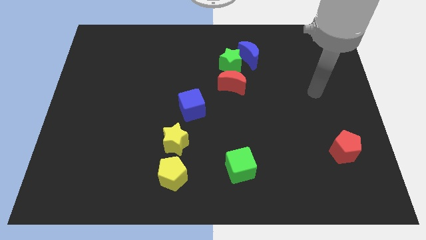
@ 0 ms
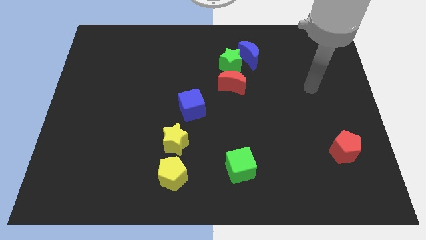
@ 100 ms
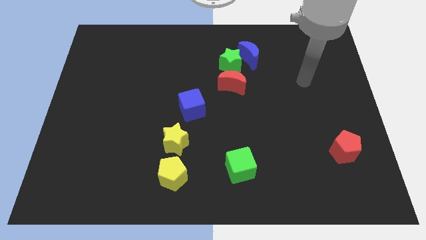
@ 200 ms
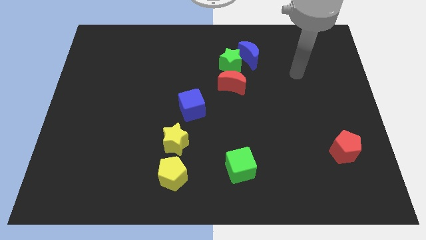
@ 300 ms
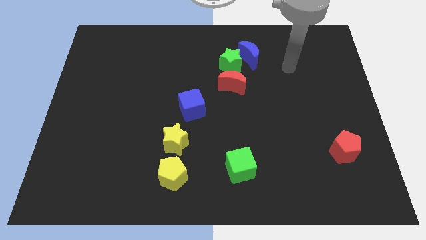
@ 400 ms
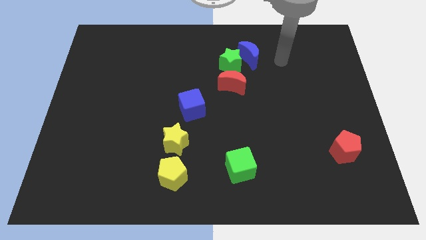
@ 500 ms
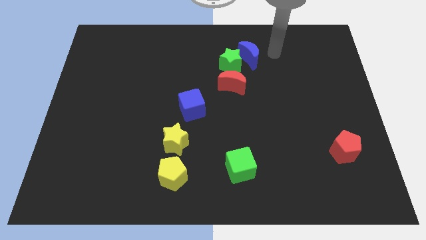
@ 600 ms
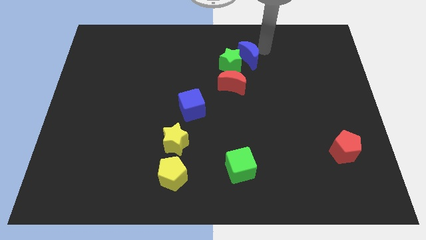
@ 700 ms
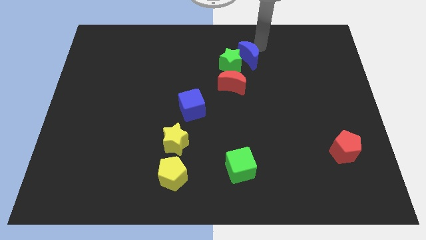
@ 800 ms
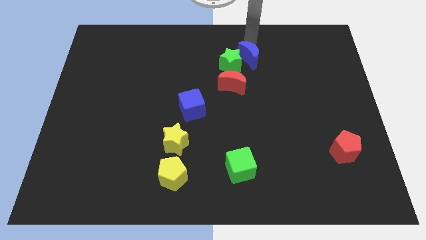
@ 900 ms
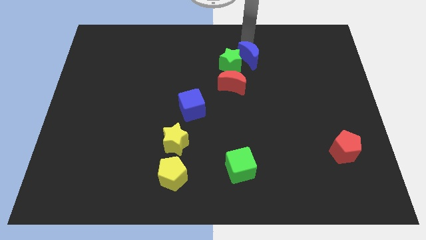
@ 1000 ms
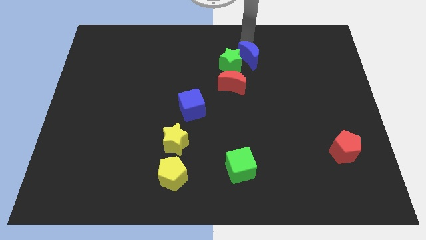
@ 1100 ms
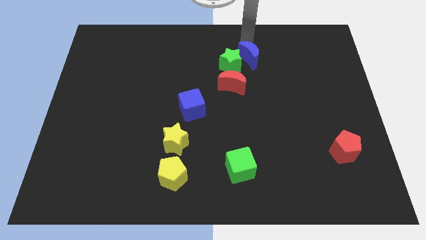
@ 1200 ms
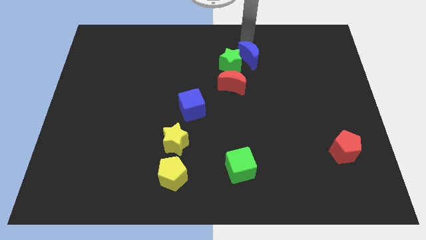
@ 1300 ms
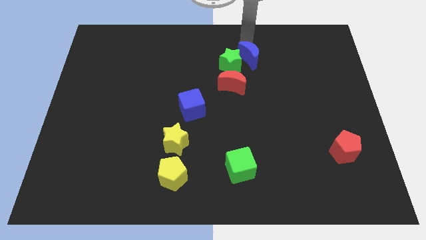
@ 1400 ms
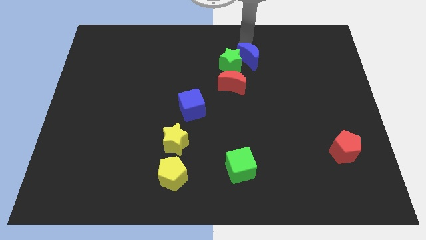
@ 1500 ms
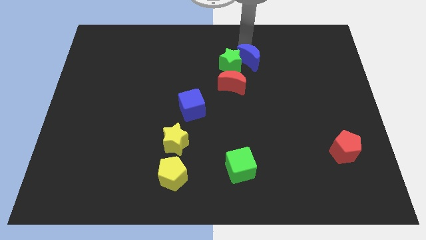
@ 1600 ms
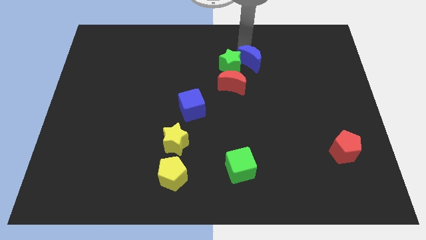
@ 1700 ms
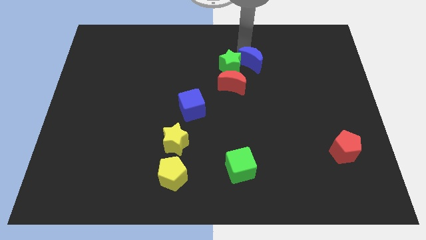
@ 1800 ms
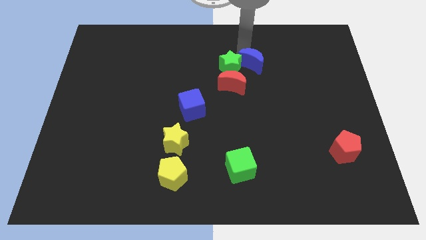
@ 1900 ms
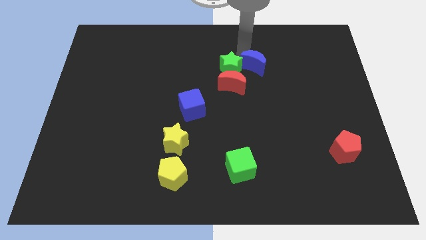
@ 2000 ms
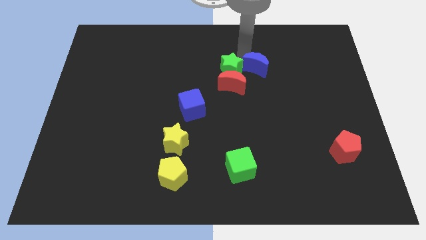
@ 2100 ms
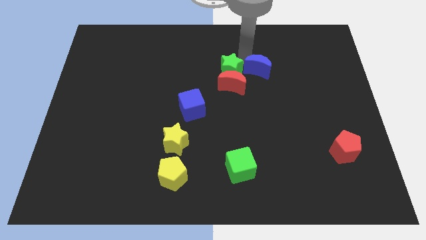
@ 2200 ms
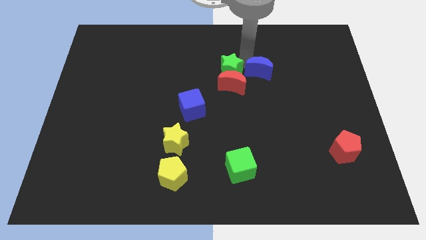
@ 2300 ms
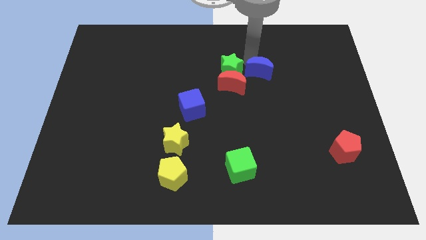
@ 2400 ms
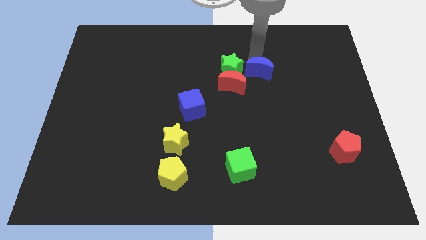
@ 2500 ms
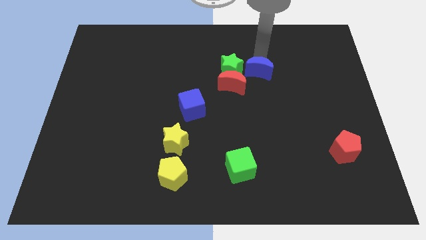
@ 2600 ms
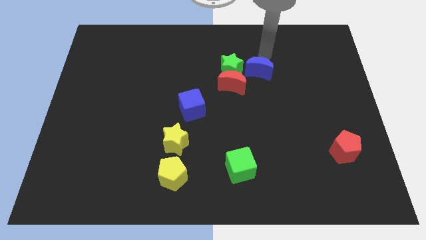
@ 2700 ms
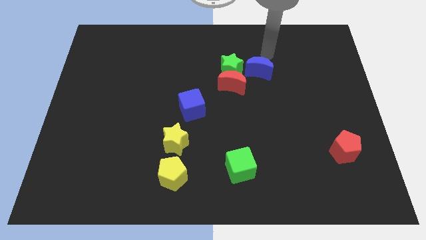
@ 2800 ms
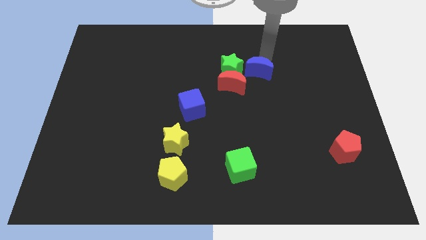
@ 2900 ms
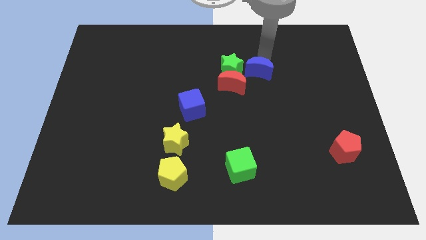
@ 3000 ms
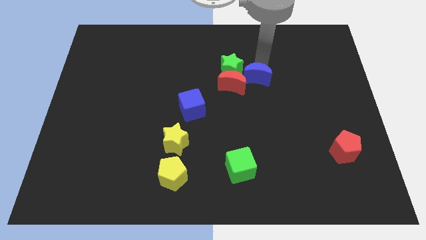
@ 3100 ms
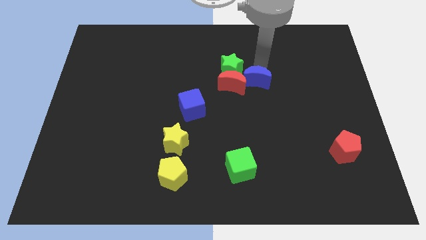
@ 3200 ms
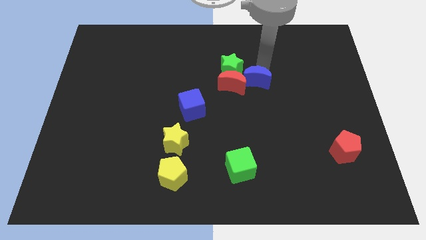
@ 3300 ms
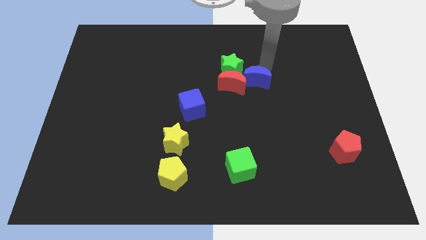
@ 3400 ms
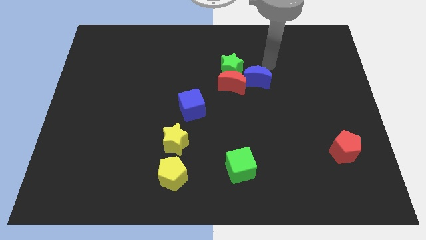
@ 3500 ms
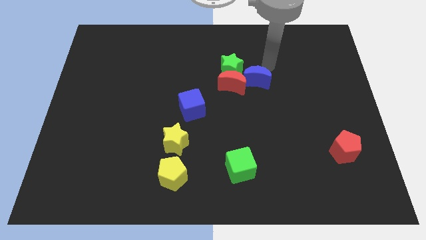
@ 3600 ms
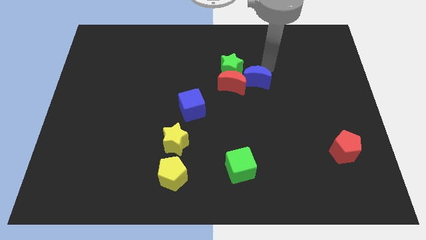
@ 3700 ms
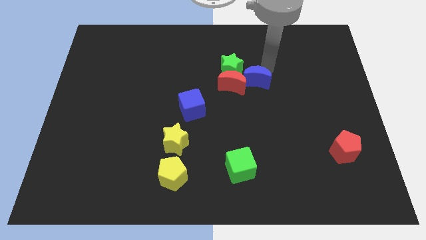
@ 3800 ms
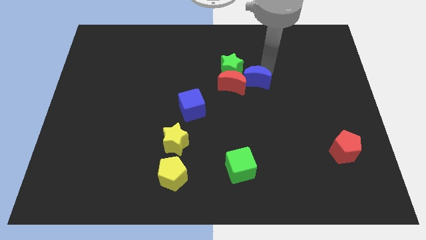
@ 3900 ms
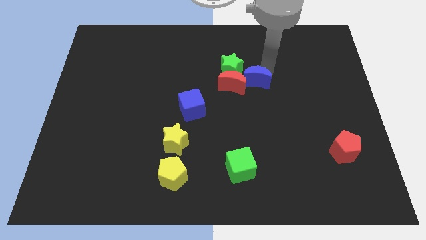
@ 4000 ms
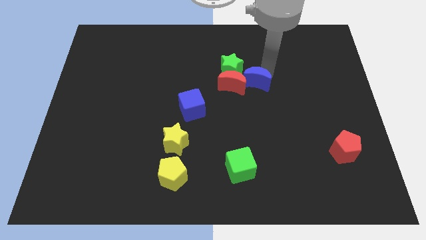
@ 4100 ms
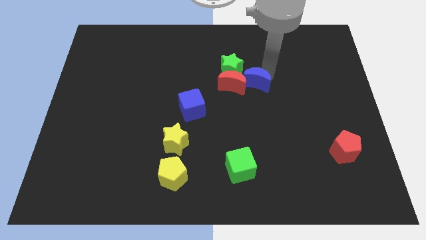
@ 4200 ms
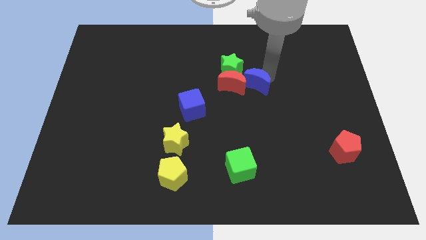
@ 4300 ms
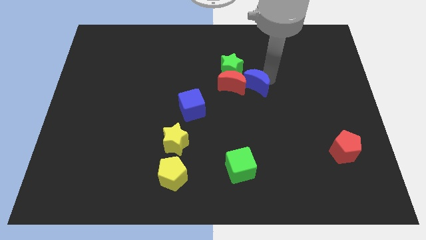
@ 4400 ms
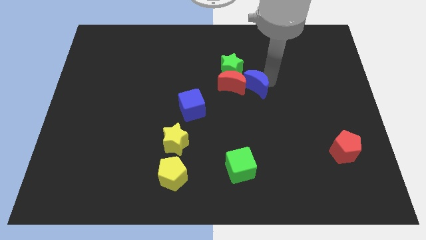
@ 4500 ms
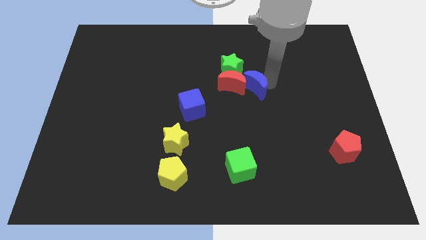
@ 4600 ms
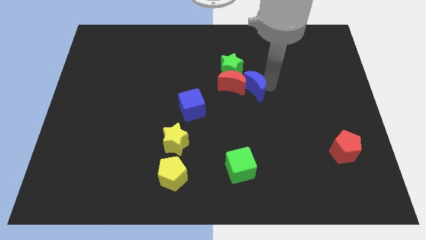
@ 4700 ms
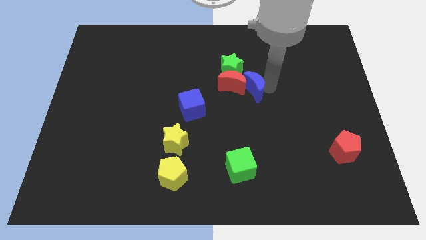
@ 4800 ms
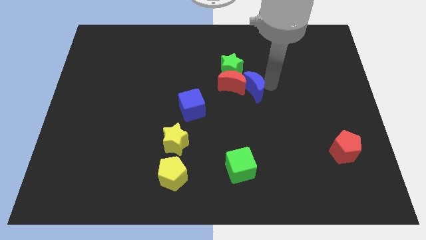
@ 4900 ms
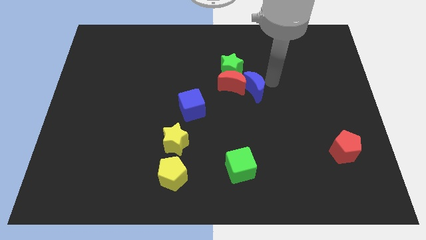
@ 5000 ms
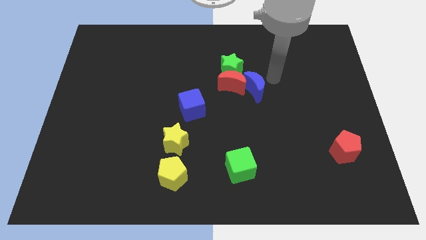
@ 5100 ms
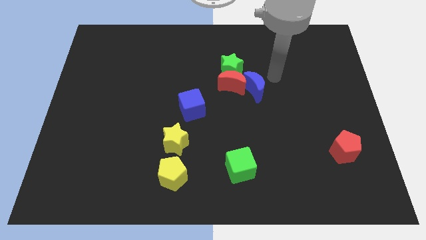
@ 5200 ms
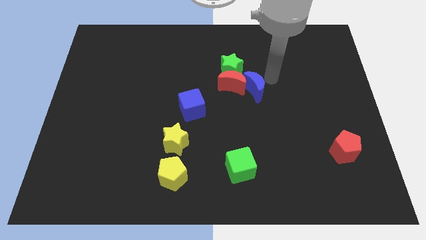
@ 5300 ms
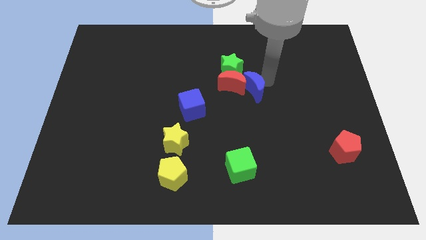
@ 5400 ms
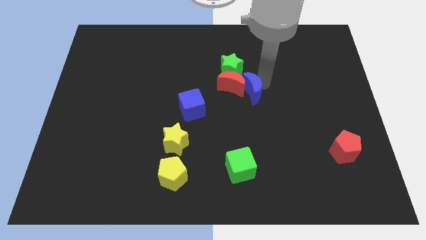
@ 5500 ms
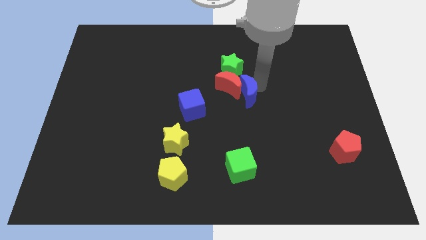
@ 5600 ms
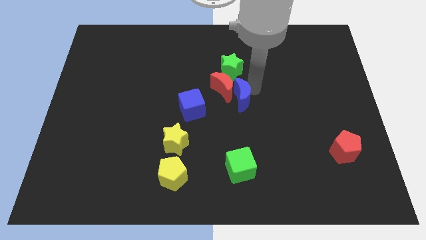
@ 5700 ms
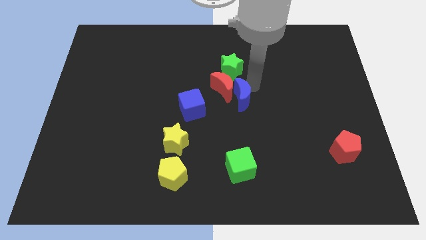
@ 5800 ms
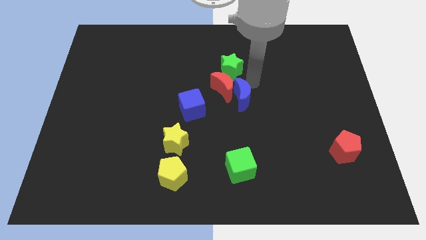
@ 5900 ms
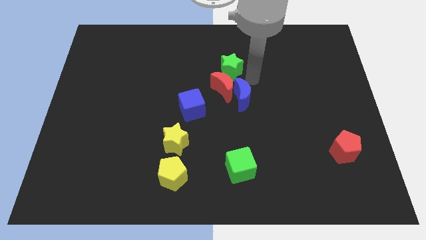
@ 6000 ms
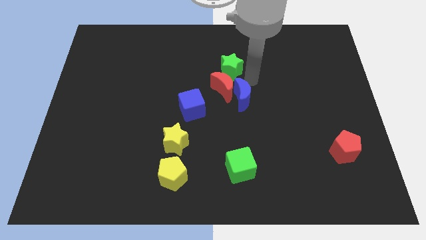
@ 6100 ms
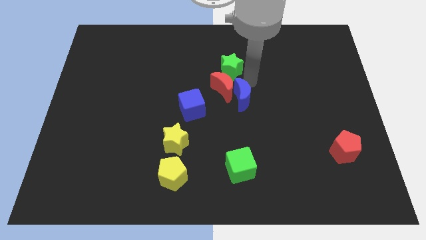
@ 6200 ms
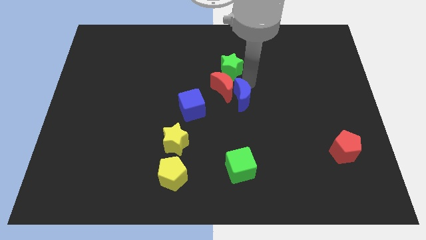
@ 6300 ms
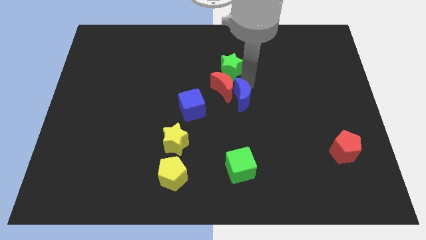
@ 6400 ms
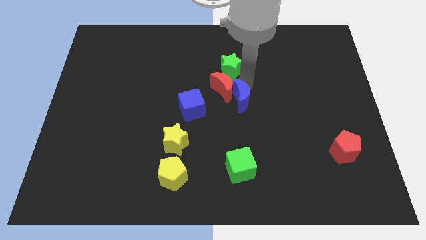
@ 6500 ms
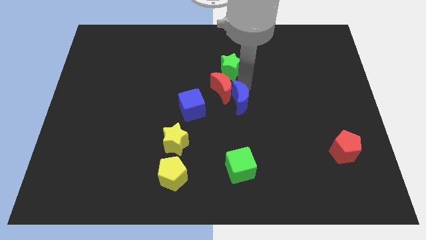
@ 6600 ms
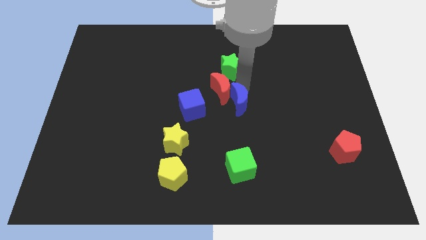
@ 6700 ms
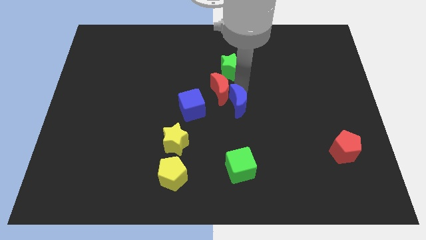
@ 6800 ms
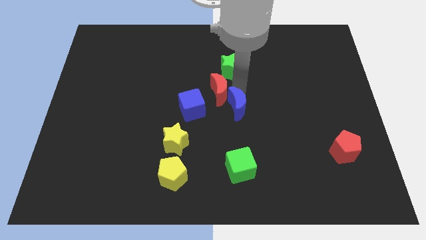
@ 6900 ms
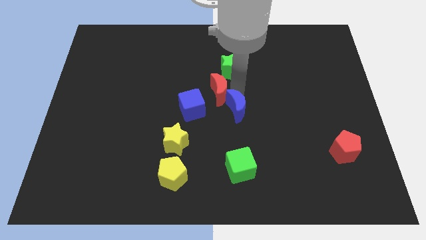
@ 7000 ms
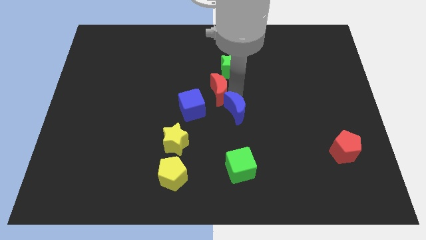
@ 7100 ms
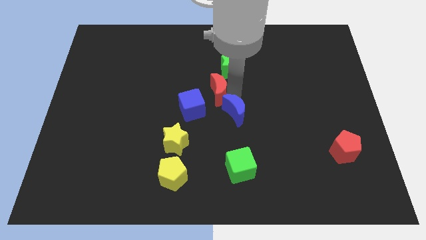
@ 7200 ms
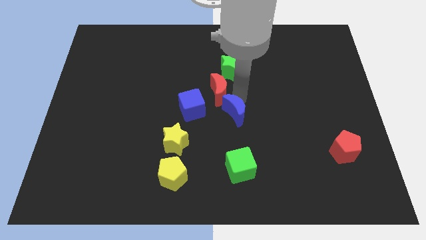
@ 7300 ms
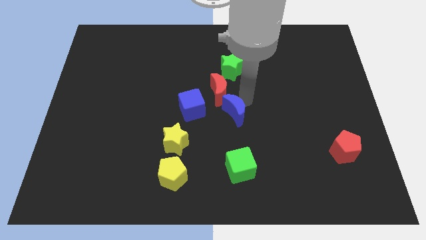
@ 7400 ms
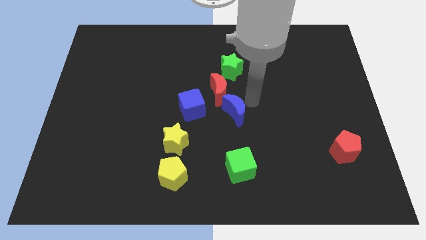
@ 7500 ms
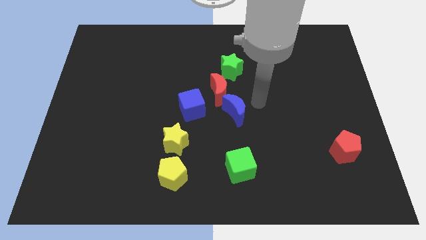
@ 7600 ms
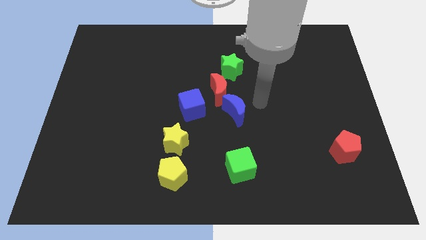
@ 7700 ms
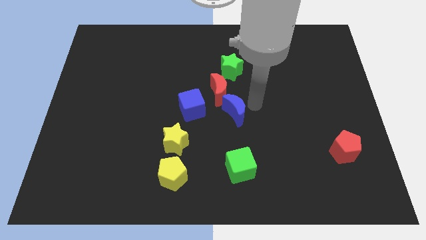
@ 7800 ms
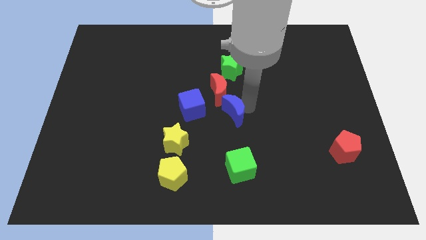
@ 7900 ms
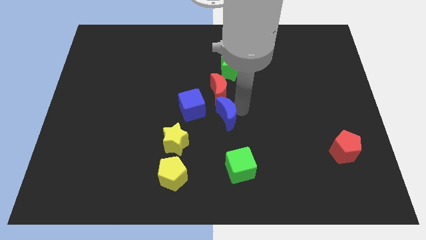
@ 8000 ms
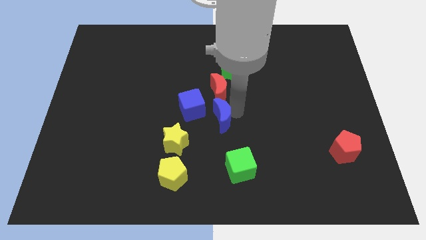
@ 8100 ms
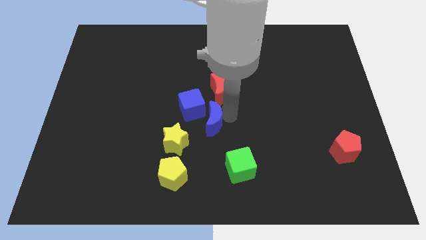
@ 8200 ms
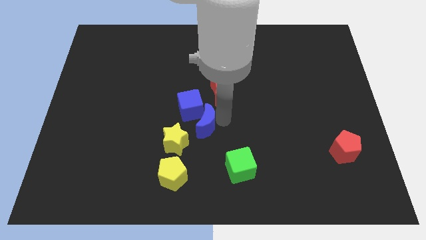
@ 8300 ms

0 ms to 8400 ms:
move the blue moon downwards and then to the left

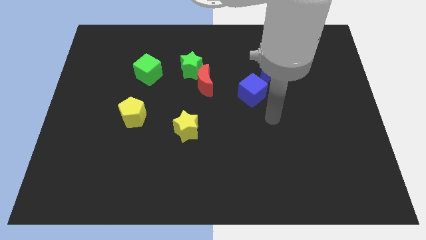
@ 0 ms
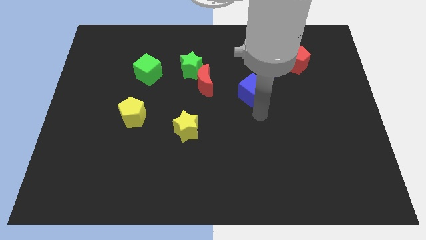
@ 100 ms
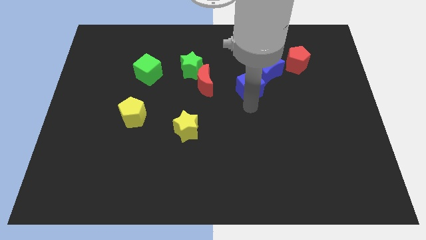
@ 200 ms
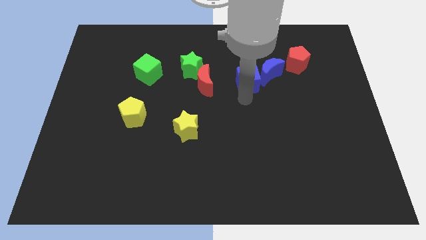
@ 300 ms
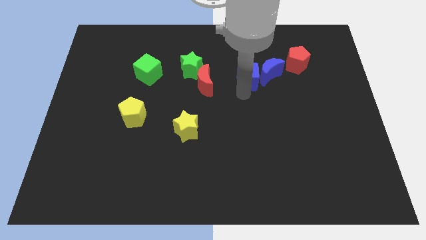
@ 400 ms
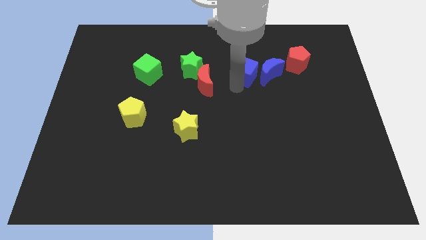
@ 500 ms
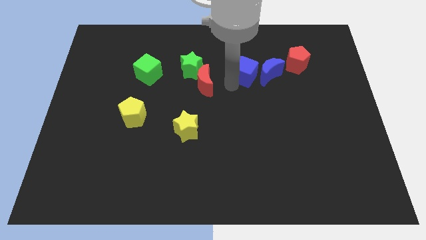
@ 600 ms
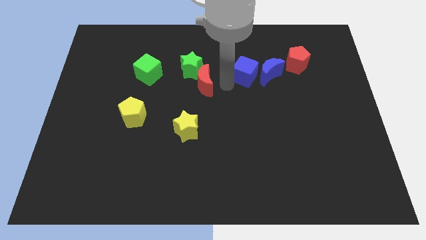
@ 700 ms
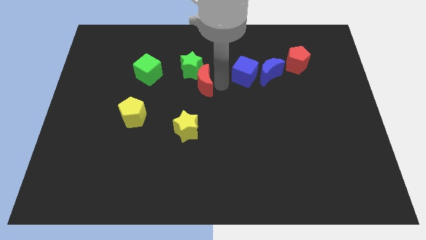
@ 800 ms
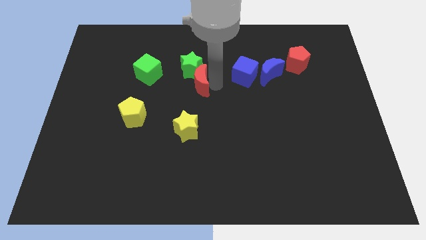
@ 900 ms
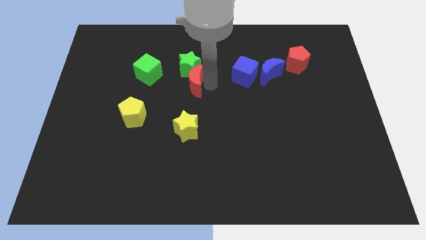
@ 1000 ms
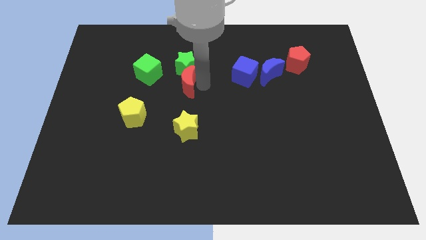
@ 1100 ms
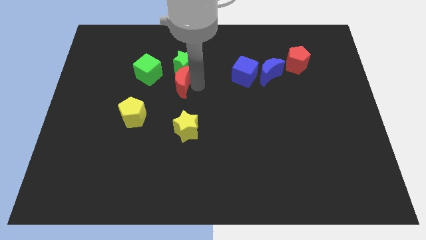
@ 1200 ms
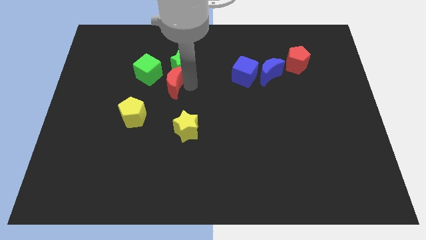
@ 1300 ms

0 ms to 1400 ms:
slide the red moon left slightly
